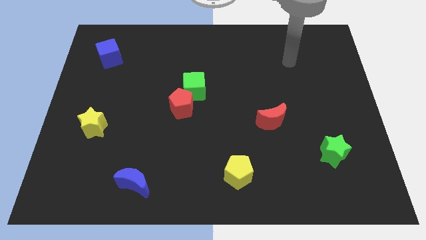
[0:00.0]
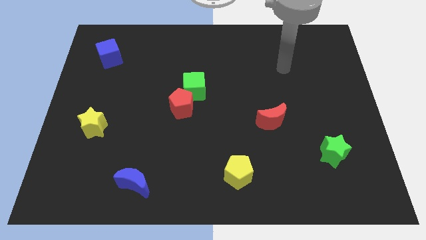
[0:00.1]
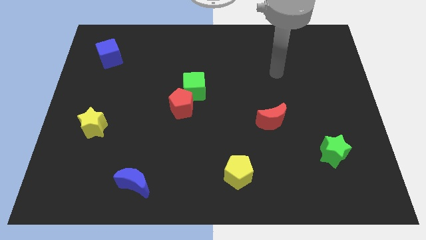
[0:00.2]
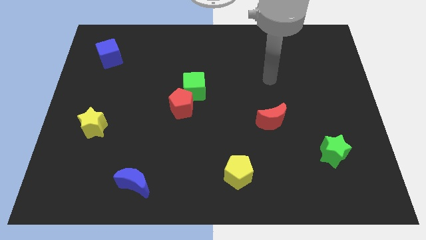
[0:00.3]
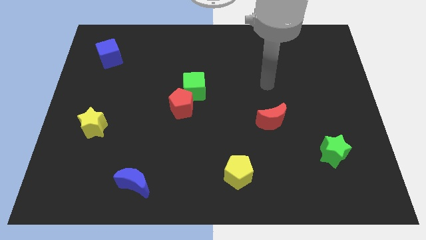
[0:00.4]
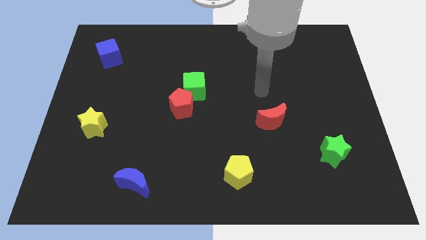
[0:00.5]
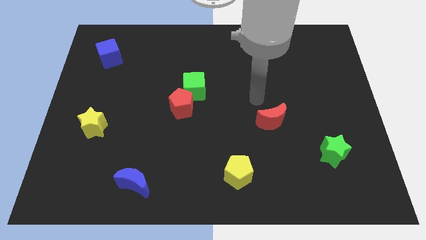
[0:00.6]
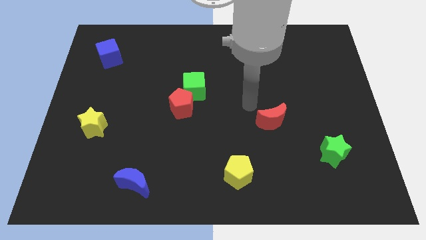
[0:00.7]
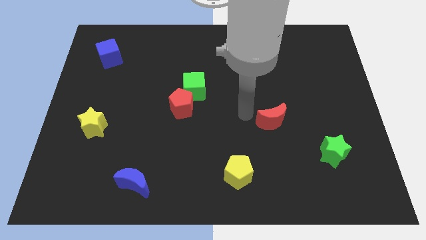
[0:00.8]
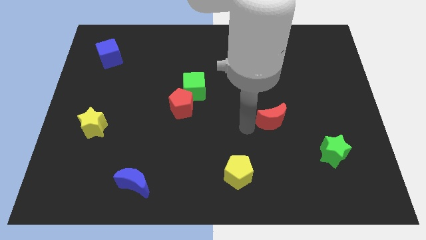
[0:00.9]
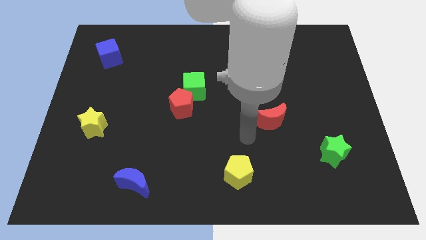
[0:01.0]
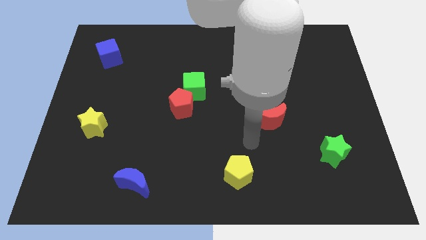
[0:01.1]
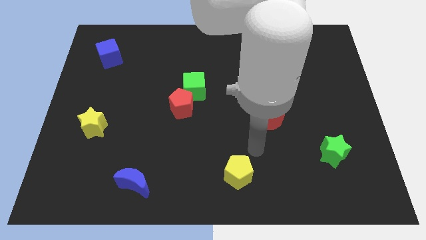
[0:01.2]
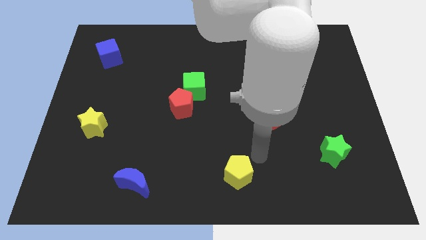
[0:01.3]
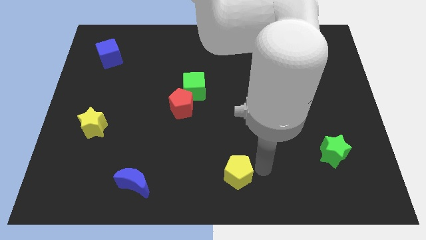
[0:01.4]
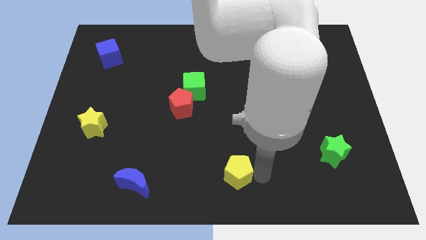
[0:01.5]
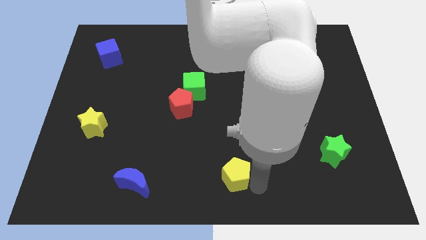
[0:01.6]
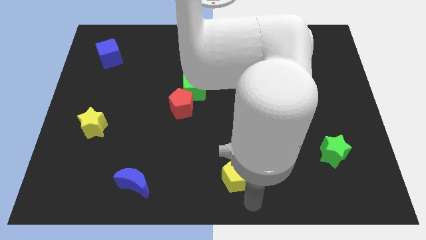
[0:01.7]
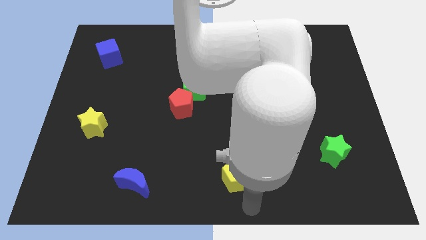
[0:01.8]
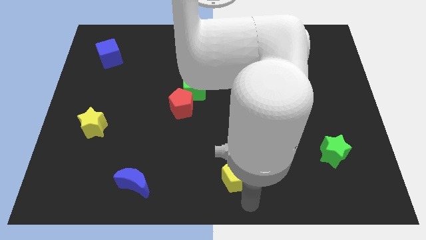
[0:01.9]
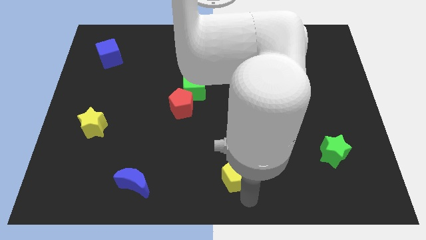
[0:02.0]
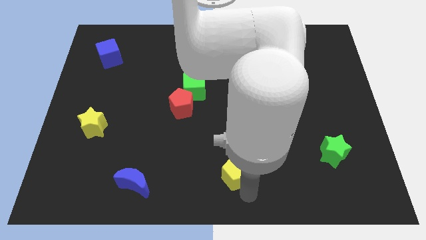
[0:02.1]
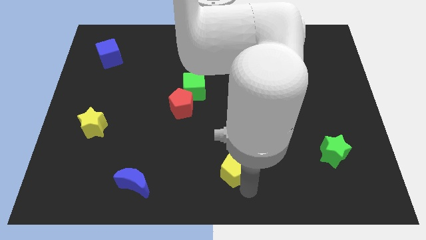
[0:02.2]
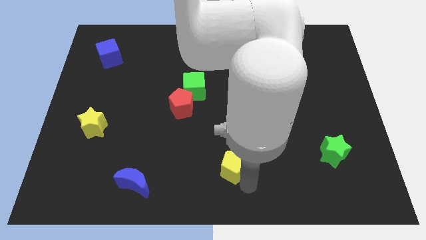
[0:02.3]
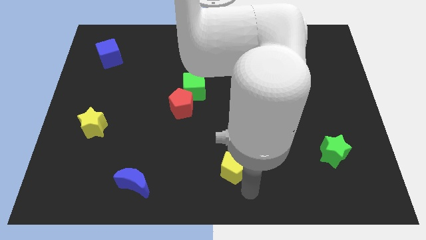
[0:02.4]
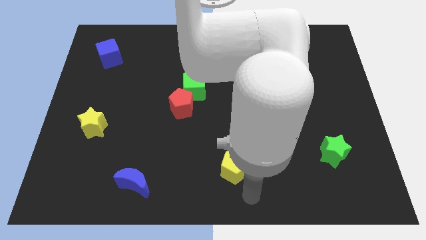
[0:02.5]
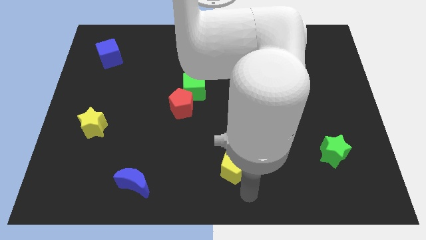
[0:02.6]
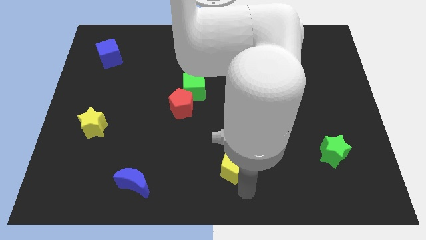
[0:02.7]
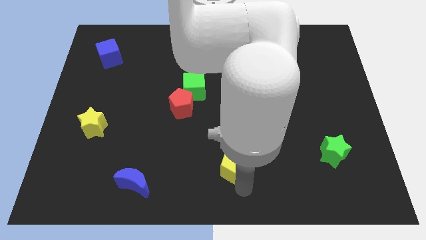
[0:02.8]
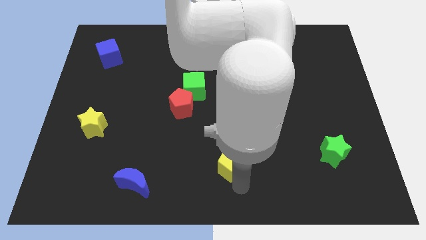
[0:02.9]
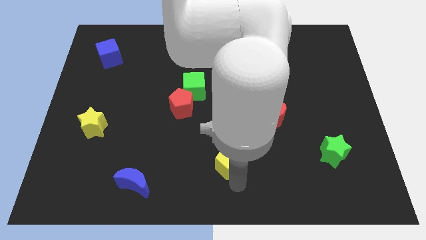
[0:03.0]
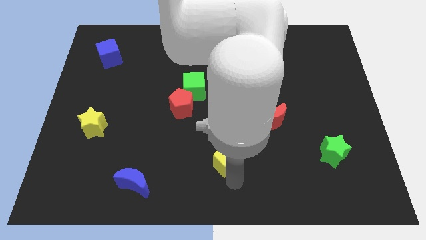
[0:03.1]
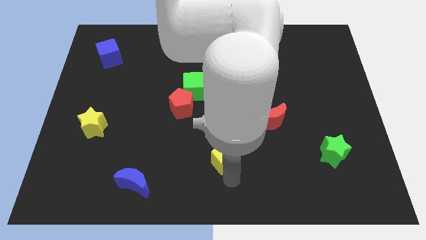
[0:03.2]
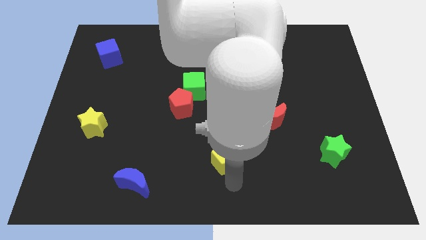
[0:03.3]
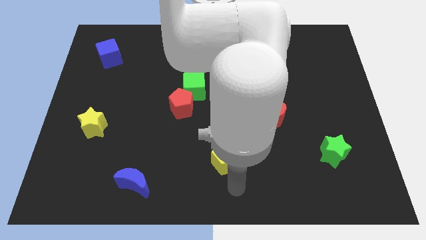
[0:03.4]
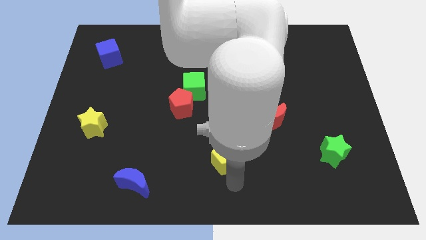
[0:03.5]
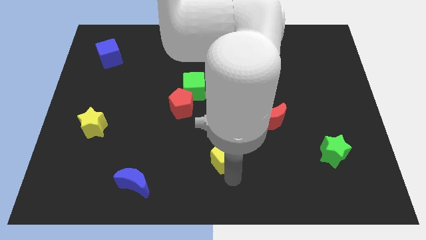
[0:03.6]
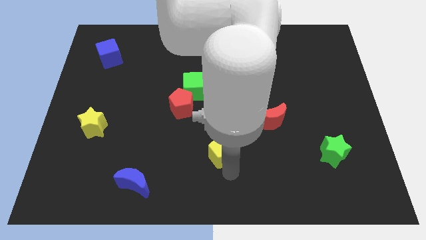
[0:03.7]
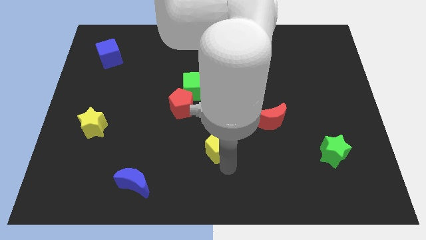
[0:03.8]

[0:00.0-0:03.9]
slightly push the yellow pentagon upwards and to the left

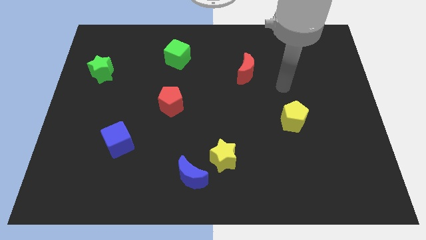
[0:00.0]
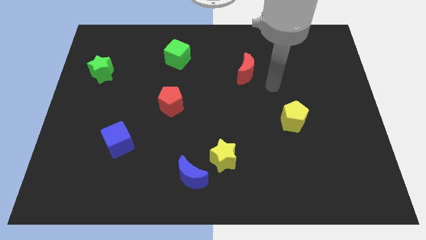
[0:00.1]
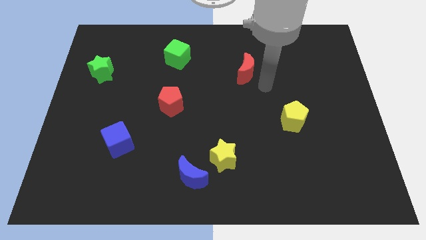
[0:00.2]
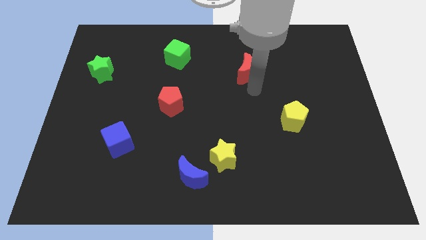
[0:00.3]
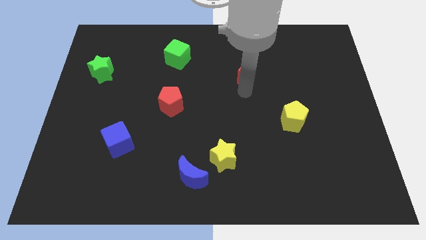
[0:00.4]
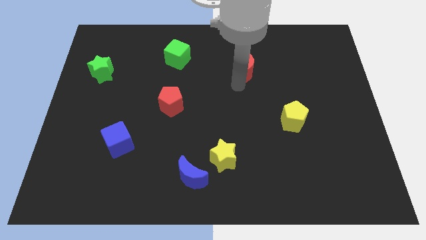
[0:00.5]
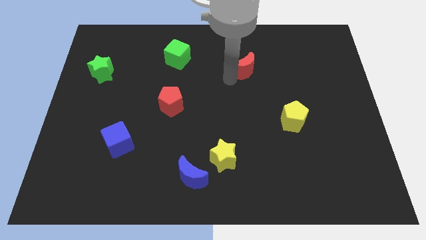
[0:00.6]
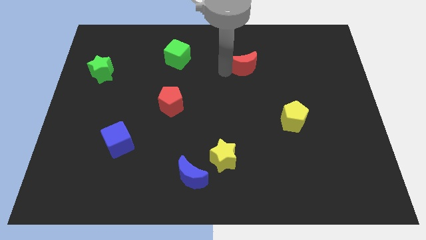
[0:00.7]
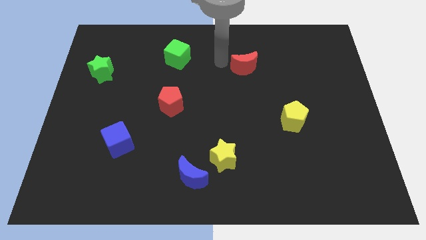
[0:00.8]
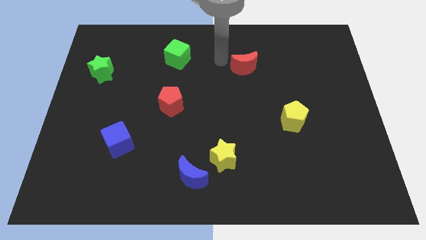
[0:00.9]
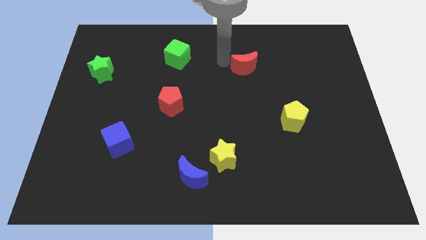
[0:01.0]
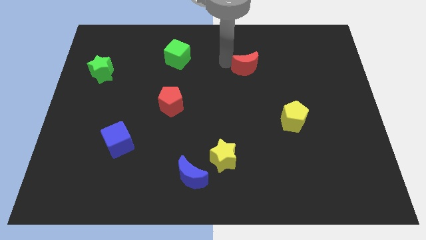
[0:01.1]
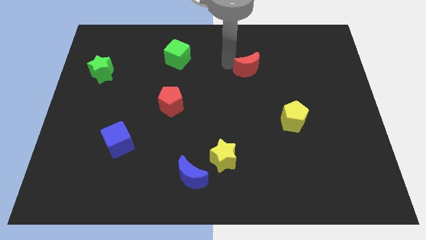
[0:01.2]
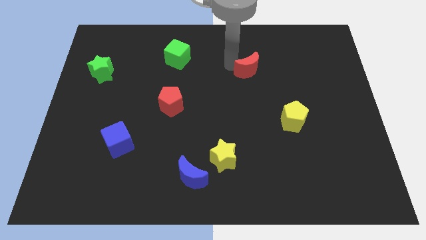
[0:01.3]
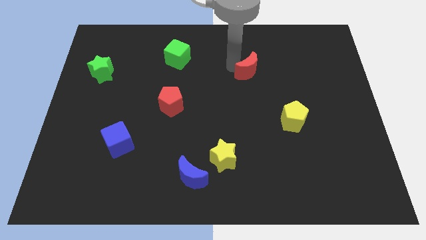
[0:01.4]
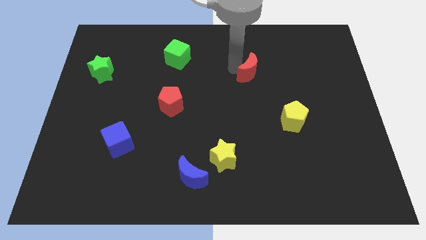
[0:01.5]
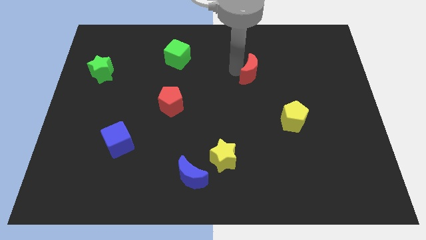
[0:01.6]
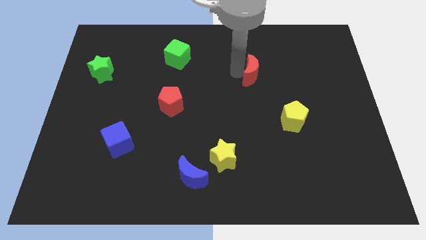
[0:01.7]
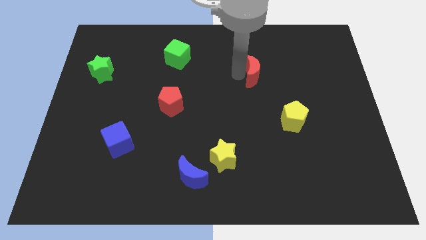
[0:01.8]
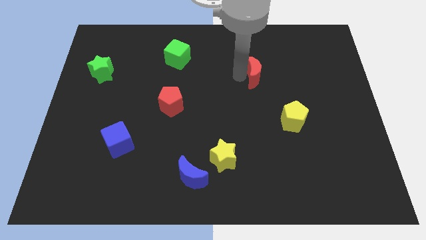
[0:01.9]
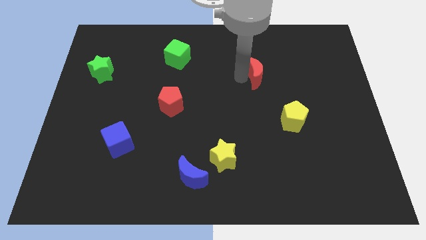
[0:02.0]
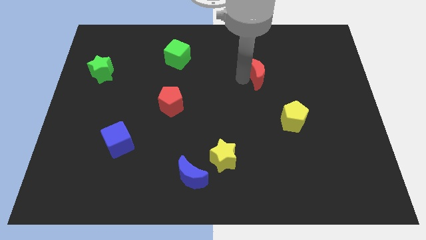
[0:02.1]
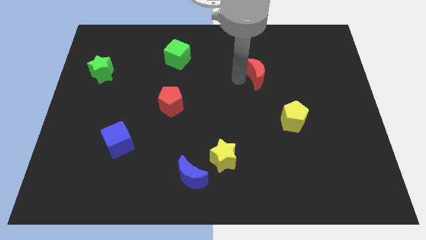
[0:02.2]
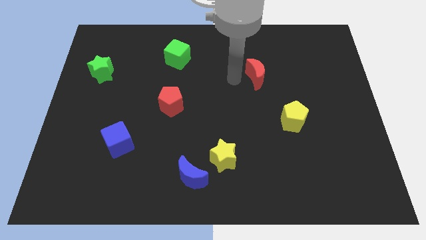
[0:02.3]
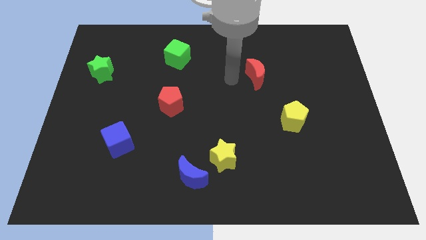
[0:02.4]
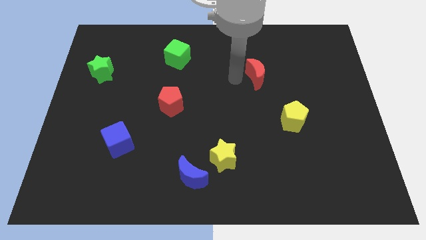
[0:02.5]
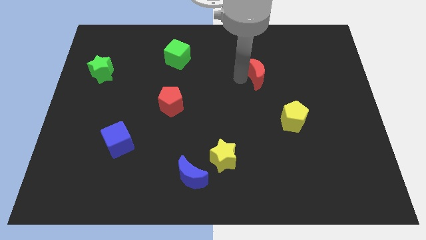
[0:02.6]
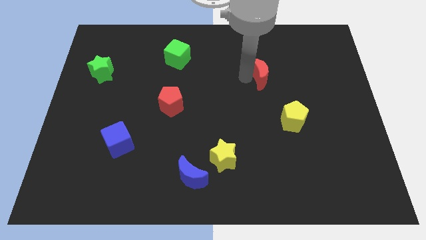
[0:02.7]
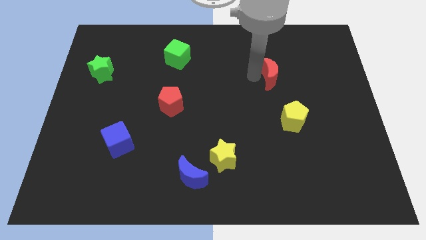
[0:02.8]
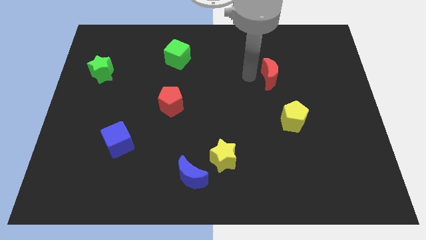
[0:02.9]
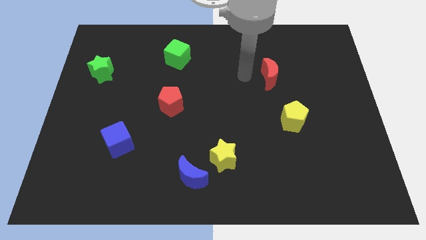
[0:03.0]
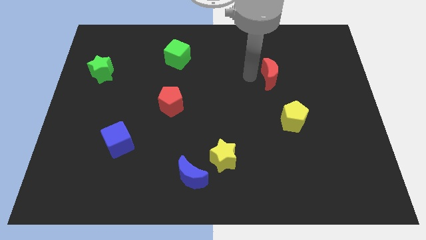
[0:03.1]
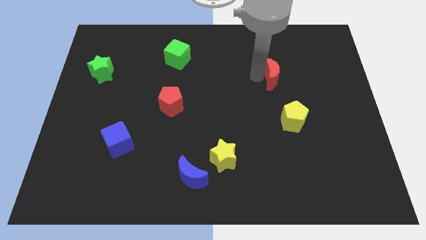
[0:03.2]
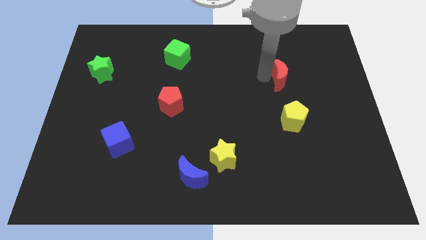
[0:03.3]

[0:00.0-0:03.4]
slightly push the red moon right

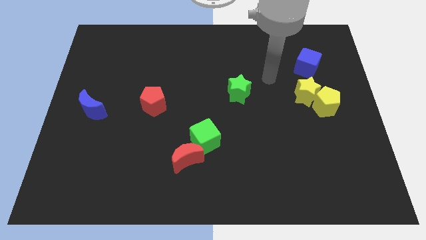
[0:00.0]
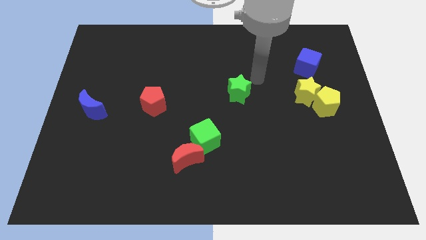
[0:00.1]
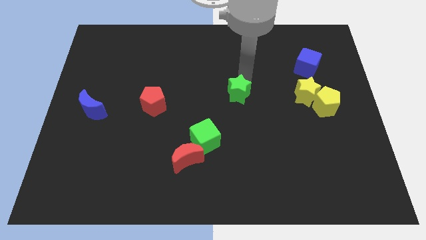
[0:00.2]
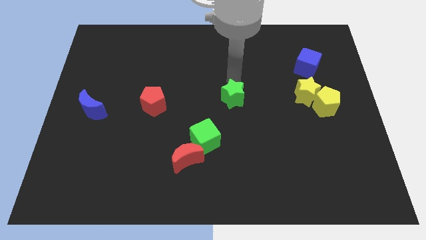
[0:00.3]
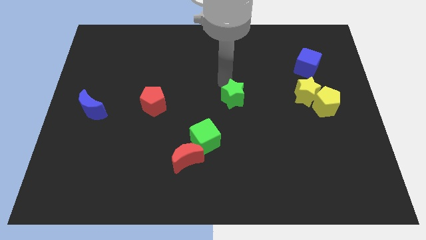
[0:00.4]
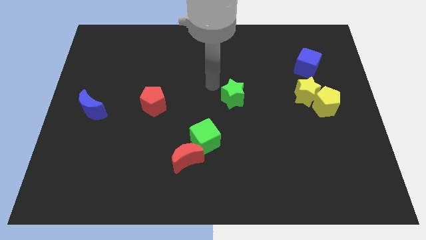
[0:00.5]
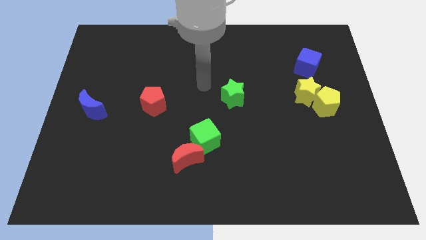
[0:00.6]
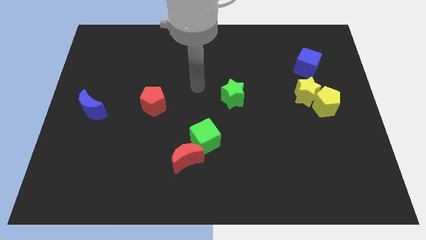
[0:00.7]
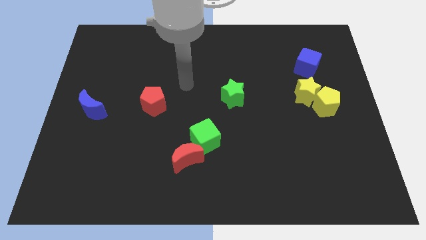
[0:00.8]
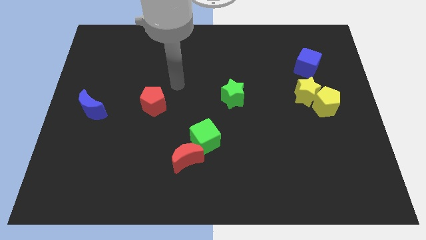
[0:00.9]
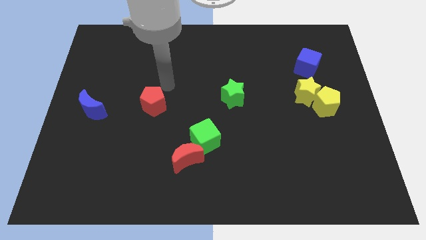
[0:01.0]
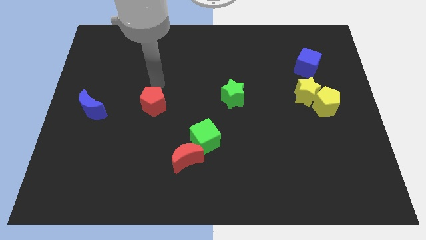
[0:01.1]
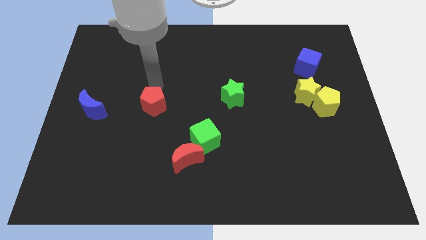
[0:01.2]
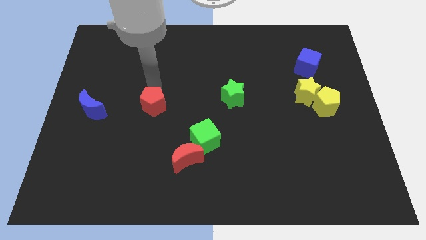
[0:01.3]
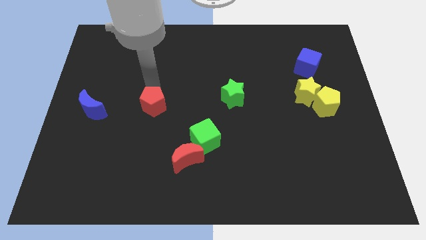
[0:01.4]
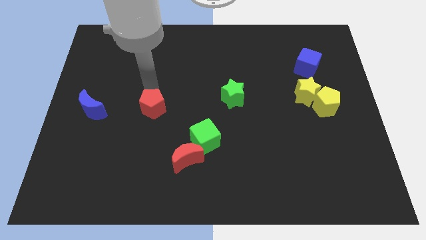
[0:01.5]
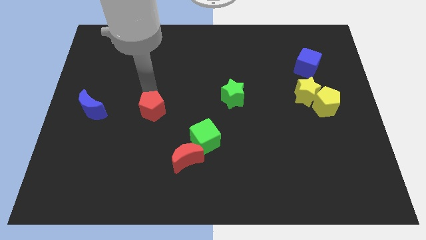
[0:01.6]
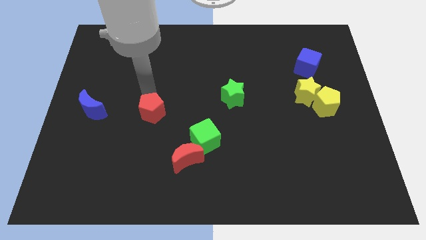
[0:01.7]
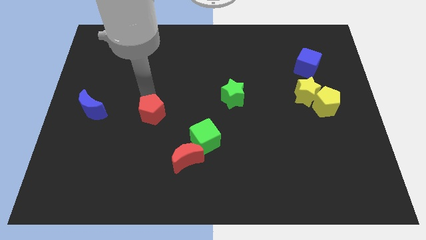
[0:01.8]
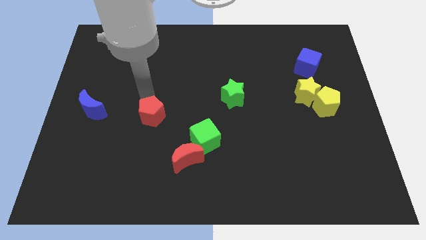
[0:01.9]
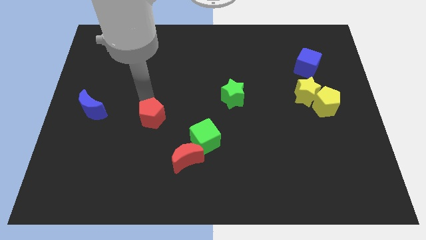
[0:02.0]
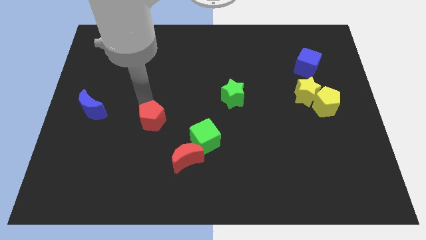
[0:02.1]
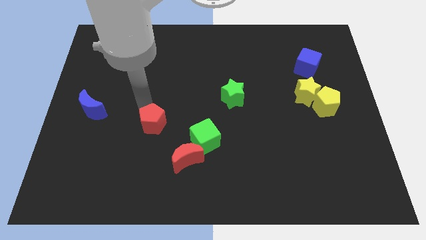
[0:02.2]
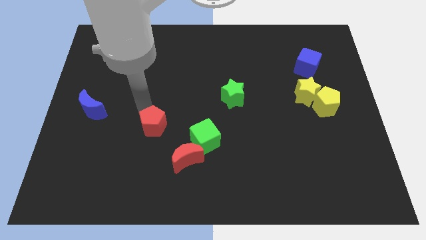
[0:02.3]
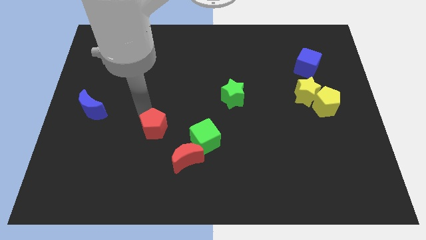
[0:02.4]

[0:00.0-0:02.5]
move the red pentagon downwards slightly
